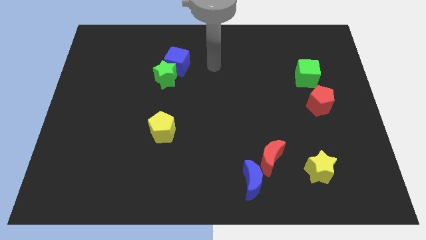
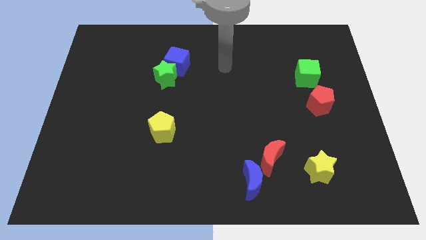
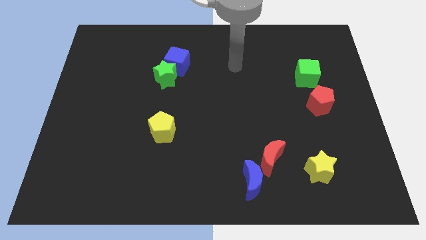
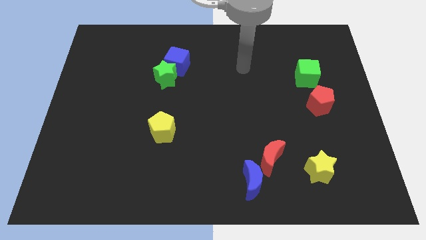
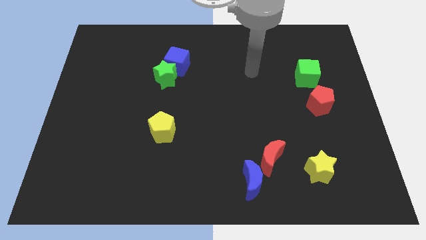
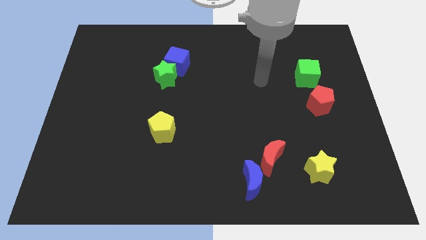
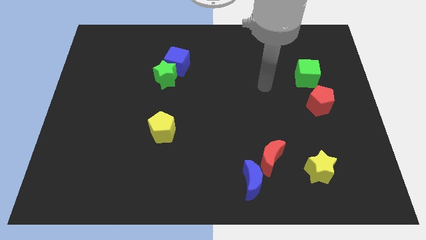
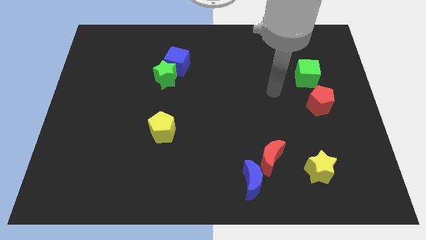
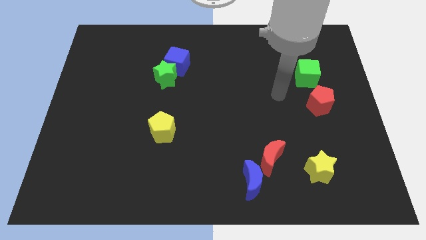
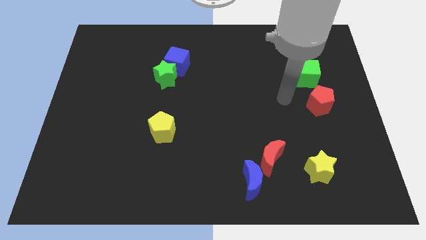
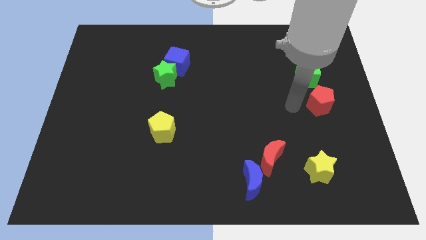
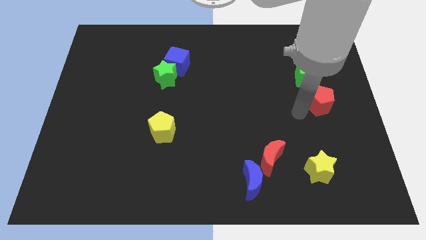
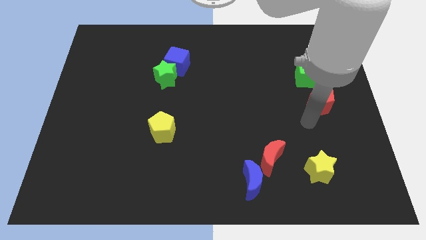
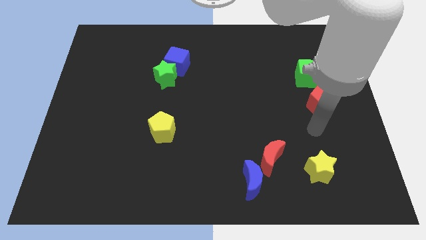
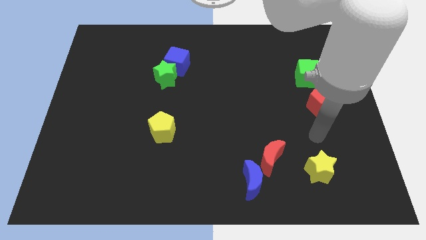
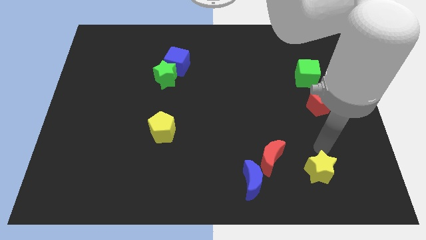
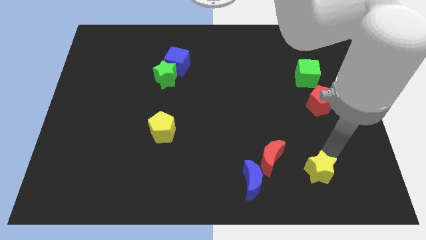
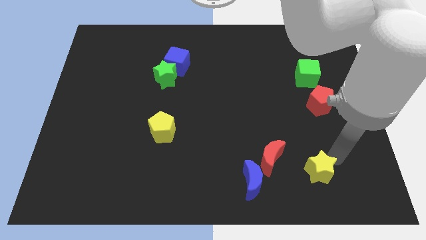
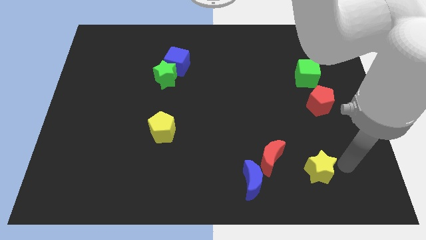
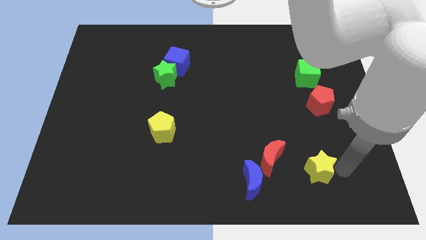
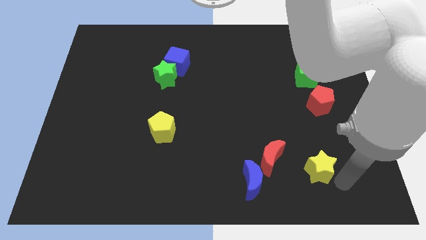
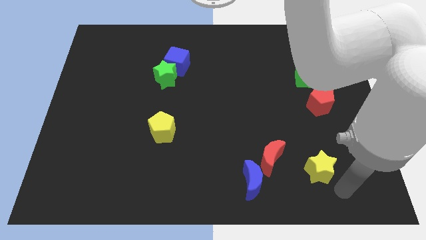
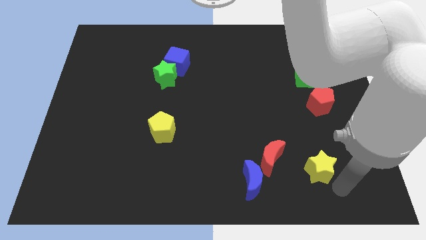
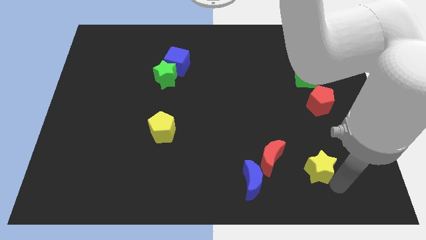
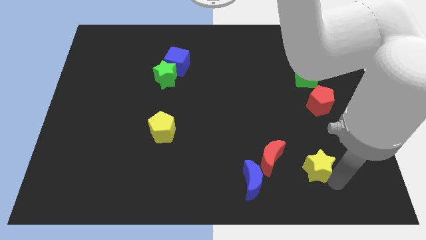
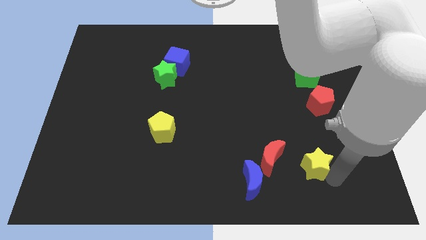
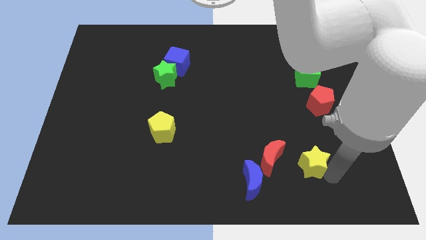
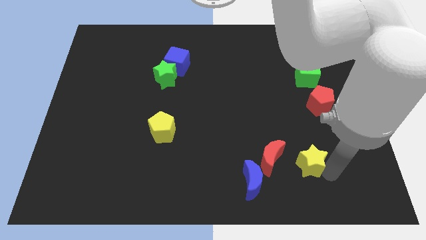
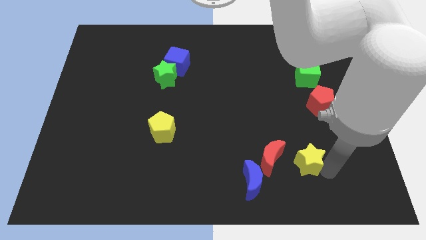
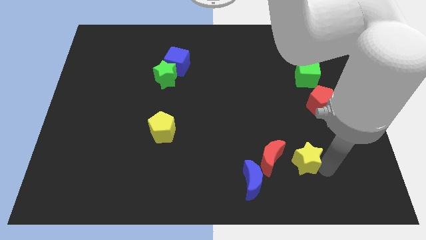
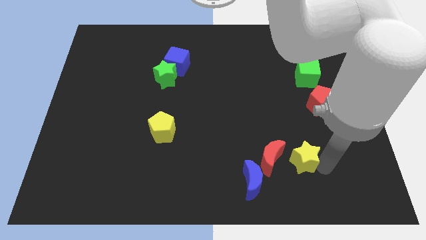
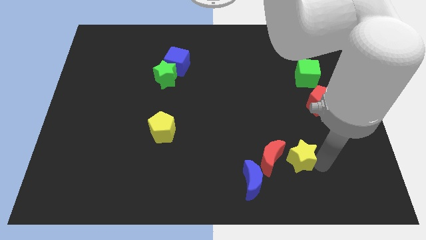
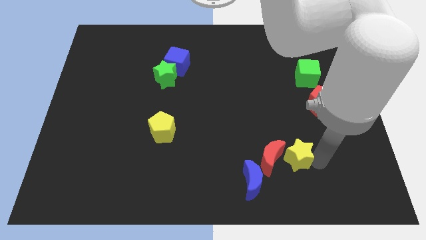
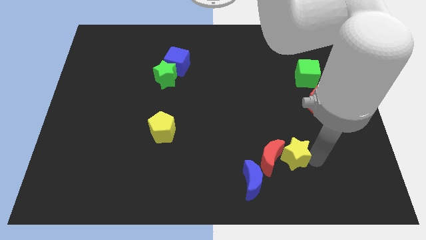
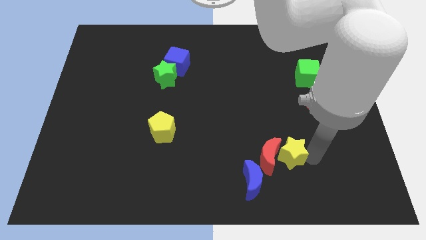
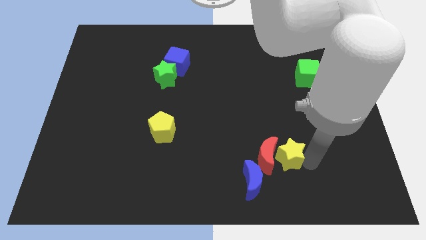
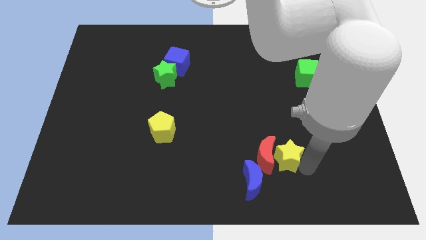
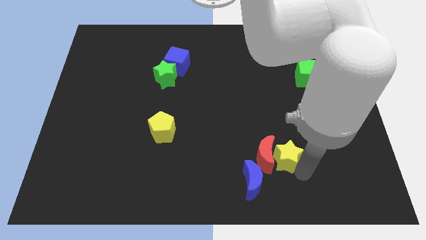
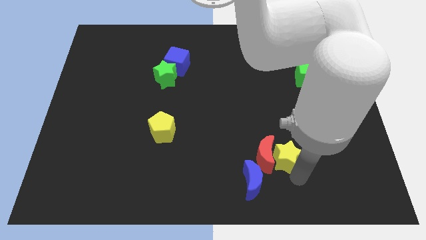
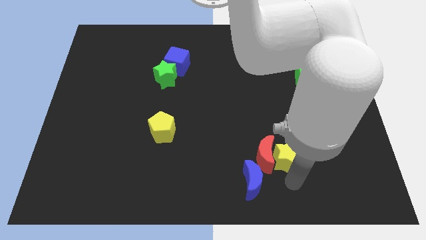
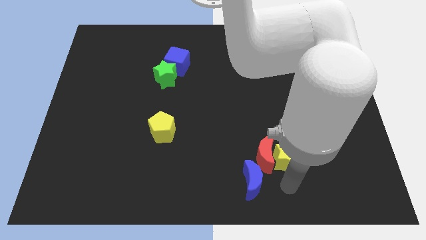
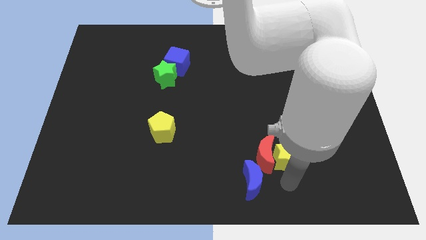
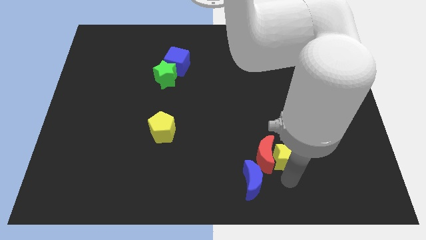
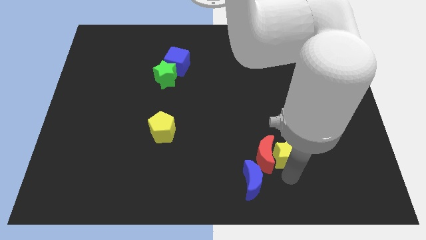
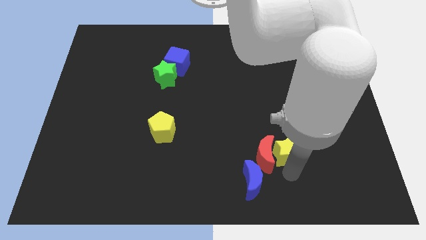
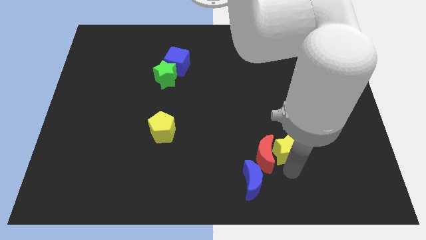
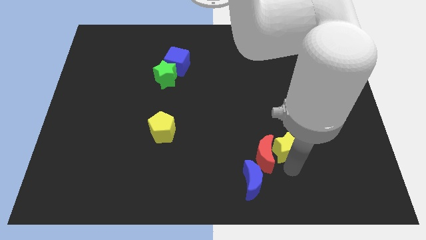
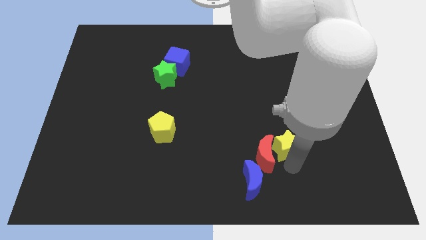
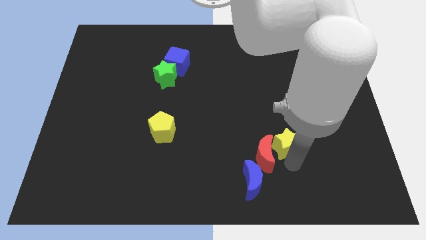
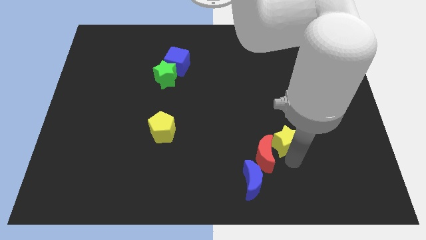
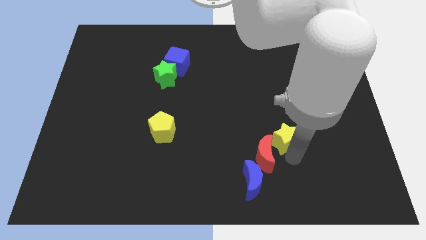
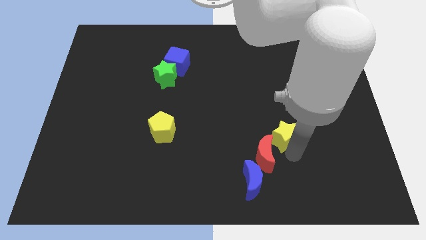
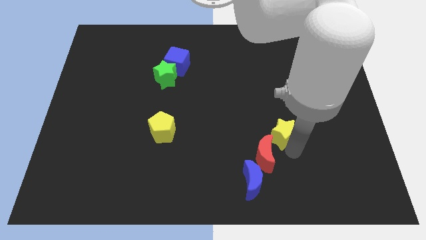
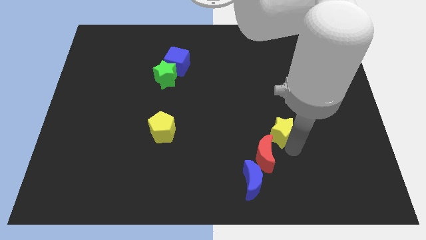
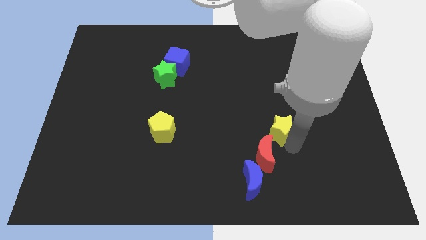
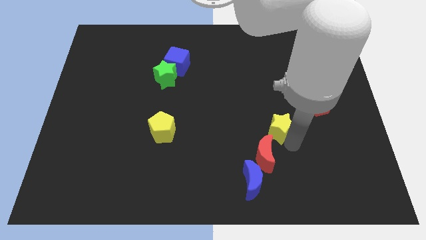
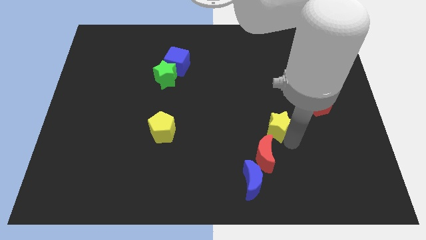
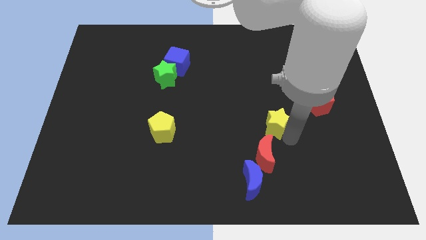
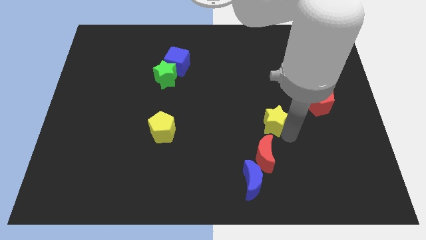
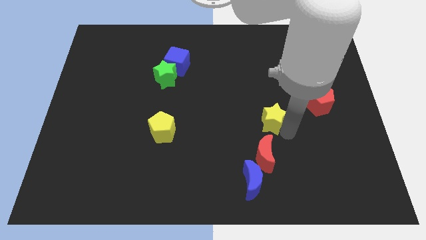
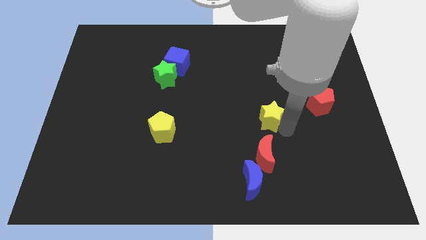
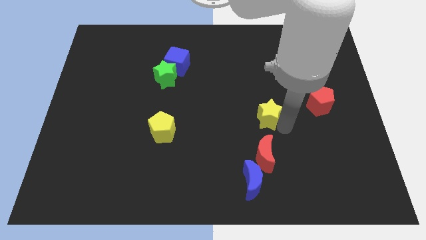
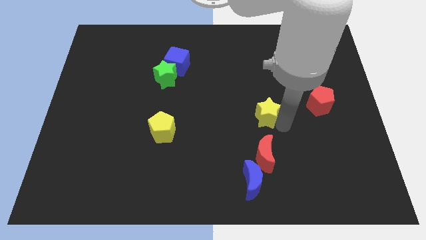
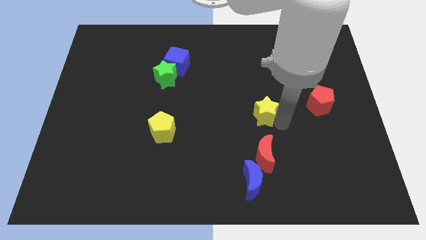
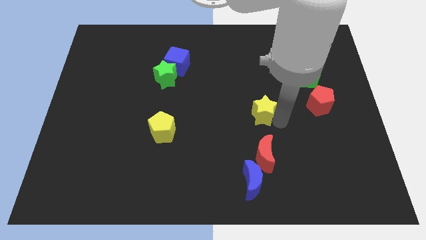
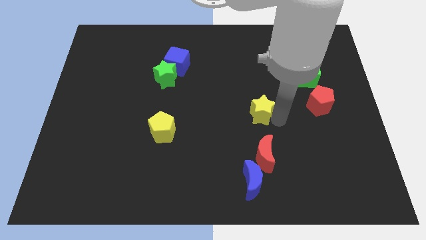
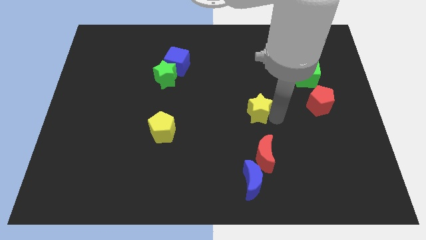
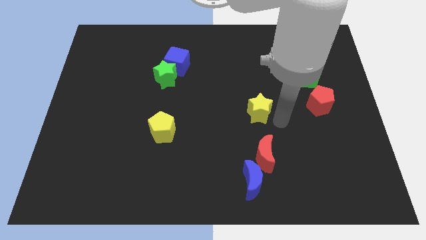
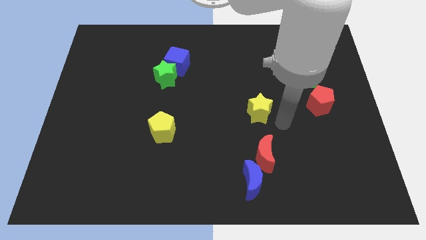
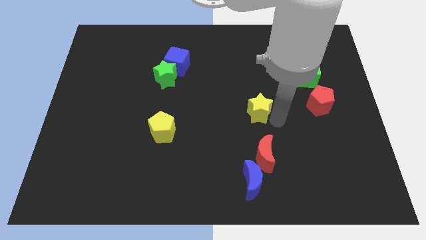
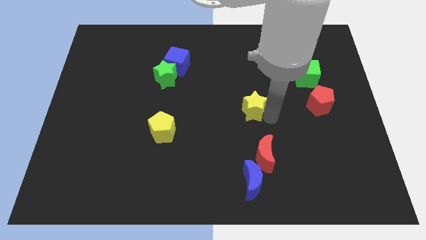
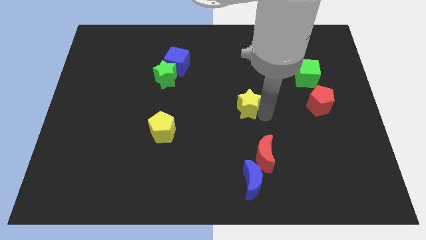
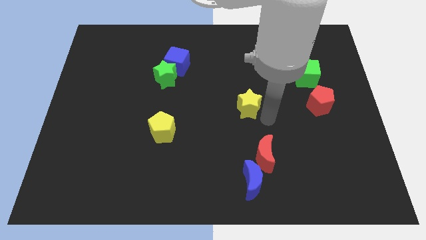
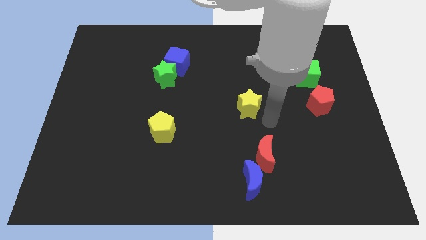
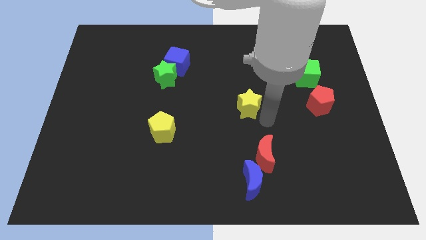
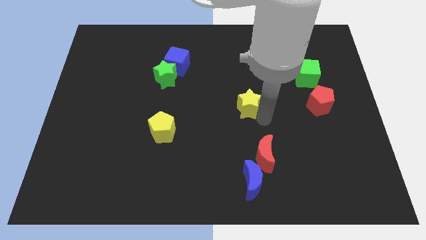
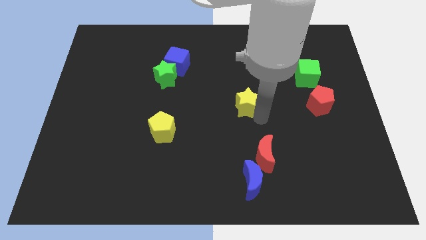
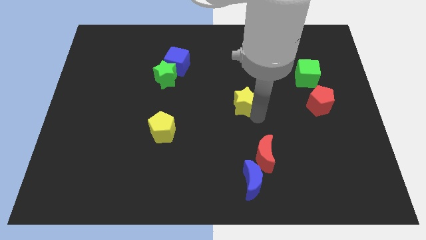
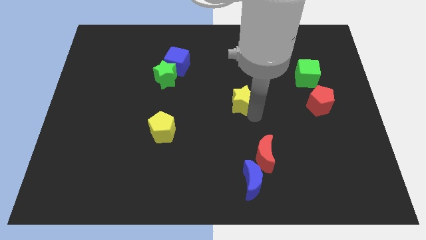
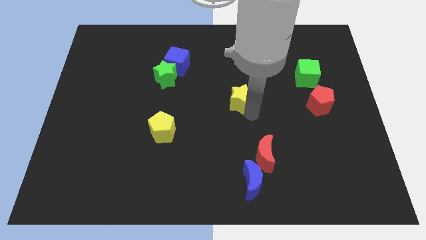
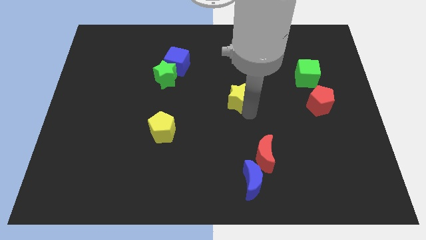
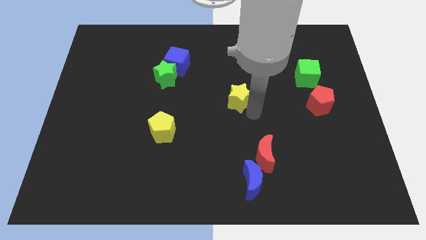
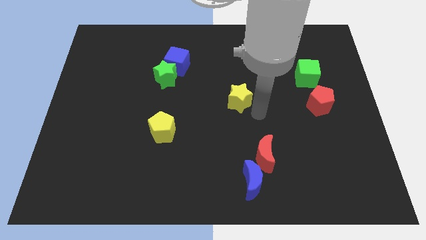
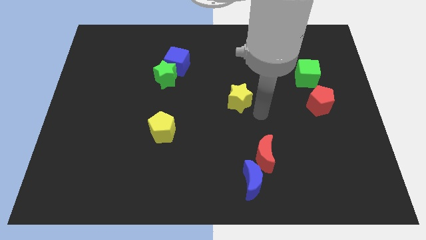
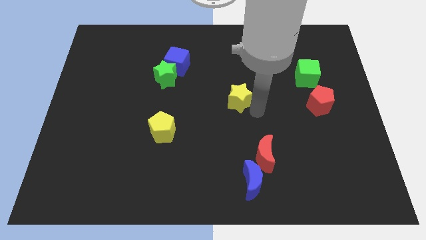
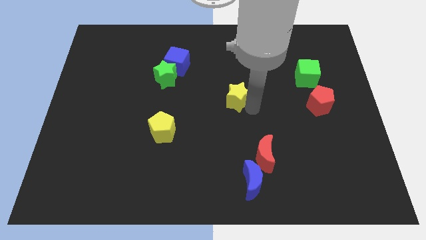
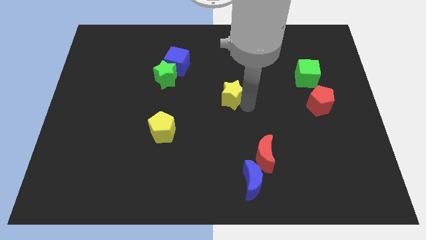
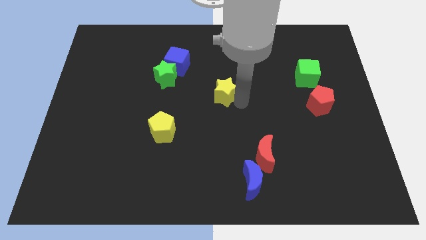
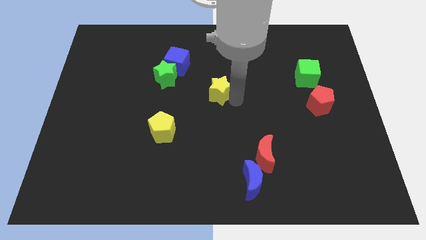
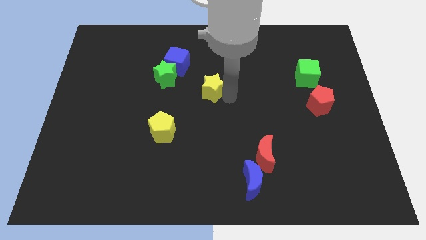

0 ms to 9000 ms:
push the yellow star to the bottom right of the blue cube
